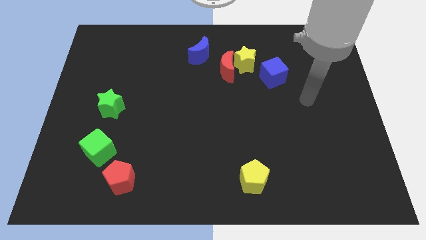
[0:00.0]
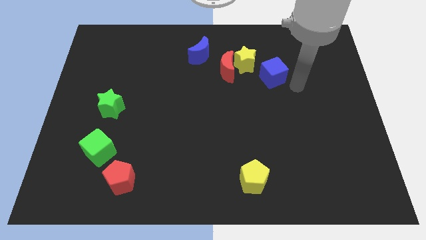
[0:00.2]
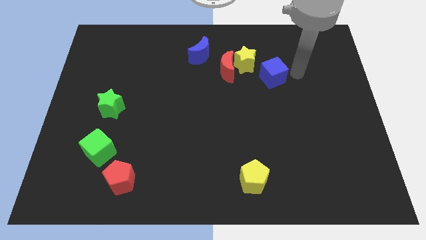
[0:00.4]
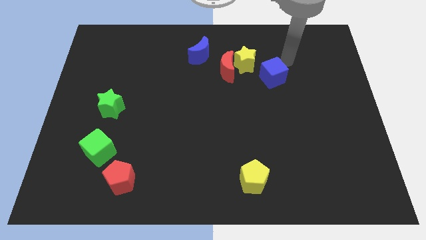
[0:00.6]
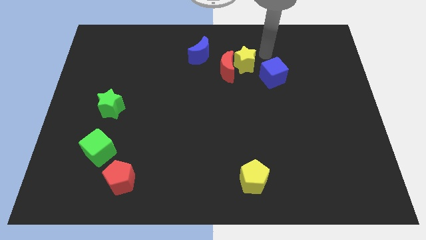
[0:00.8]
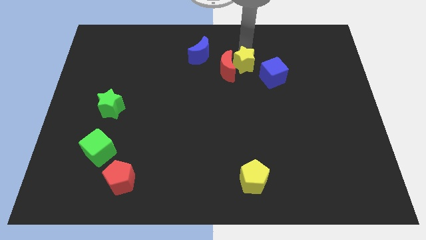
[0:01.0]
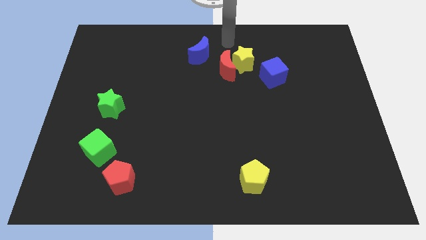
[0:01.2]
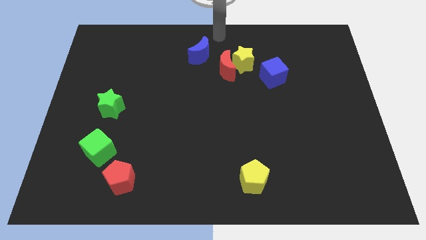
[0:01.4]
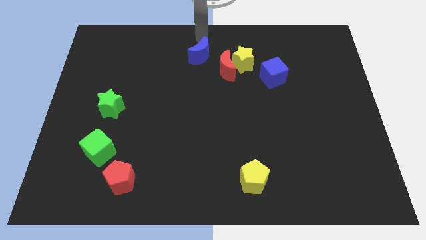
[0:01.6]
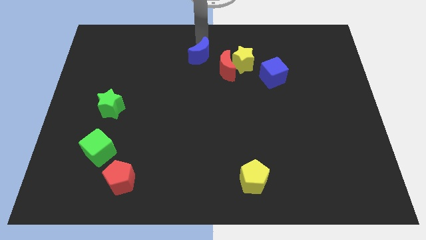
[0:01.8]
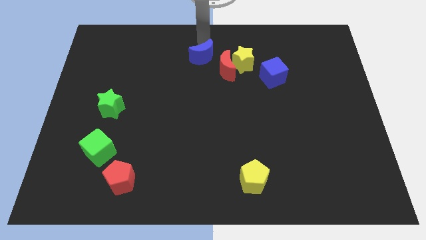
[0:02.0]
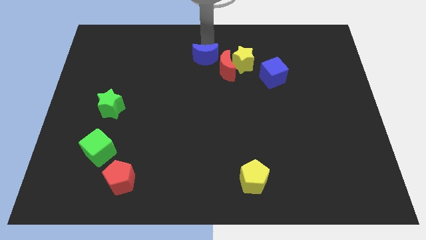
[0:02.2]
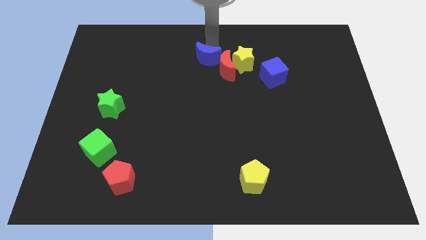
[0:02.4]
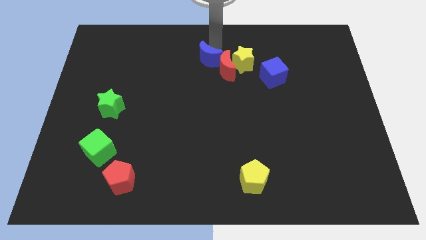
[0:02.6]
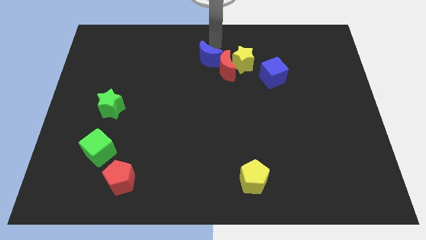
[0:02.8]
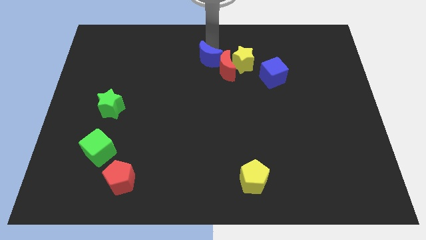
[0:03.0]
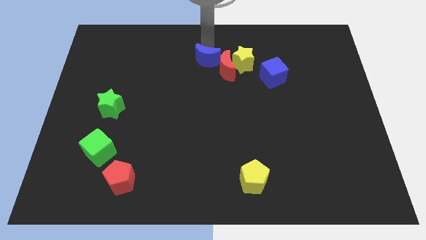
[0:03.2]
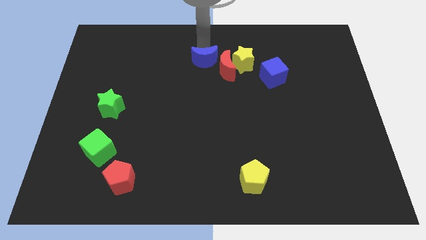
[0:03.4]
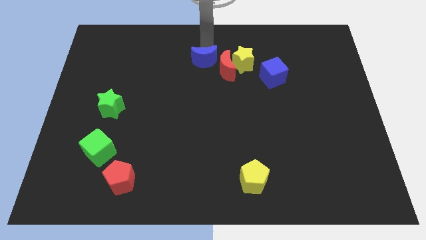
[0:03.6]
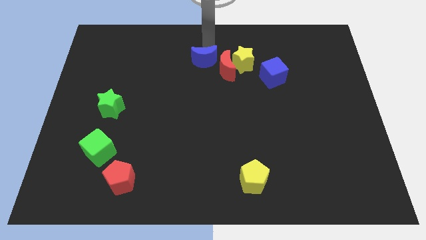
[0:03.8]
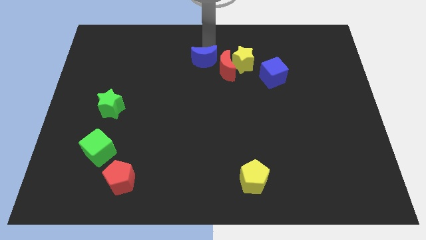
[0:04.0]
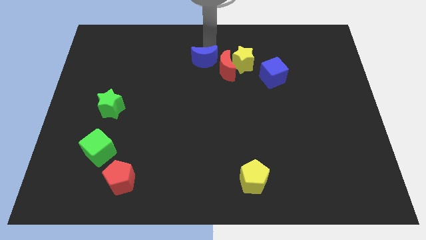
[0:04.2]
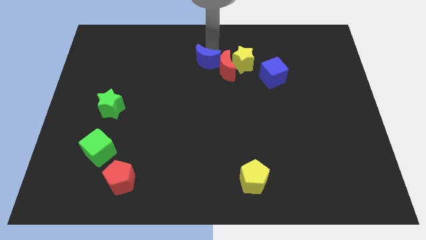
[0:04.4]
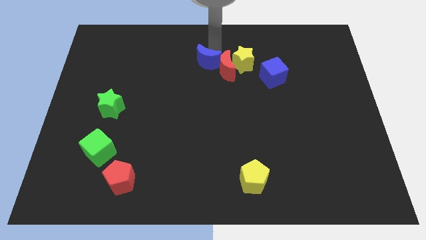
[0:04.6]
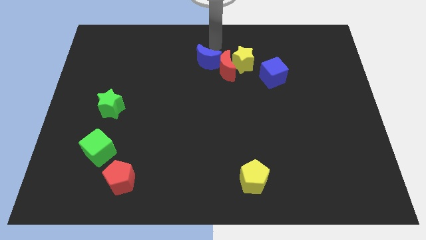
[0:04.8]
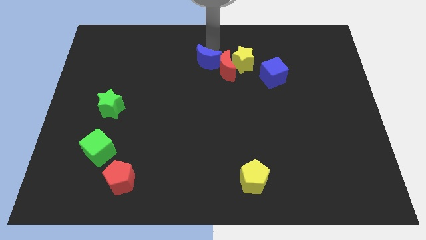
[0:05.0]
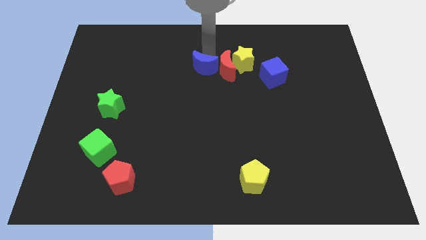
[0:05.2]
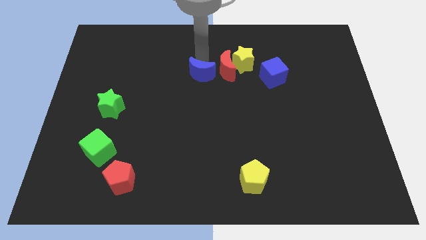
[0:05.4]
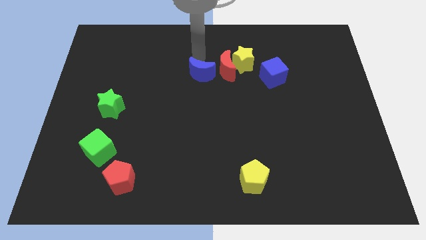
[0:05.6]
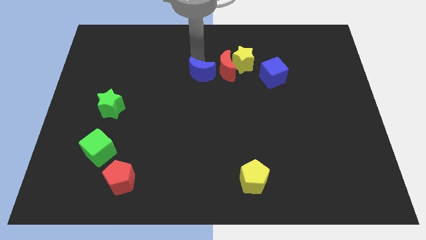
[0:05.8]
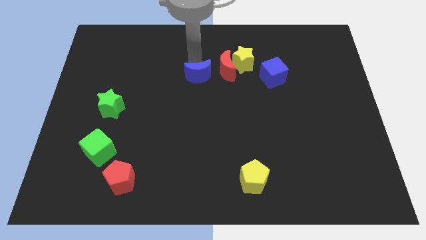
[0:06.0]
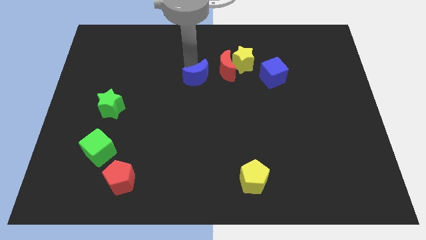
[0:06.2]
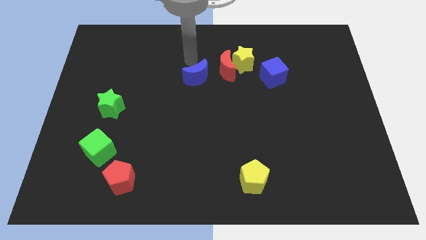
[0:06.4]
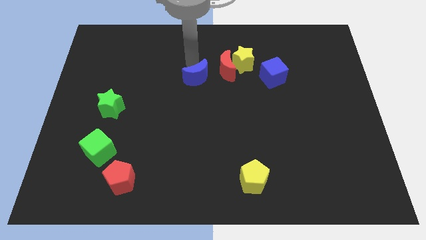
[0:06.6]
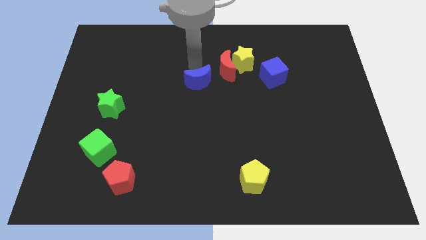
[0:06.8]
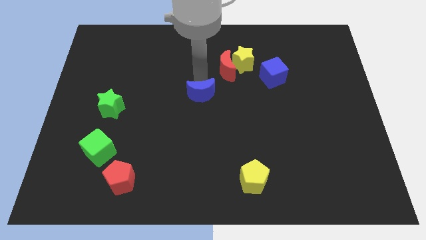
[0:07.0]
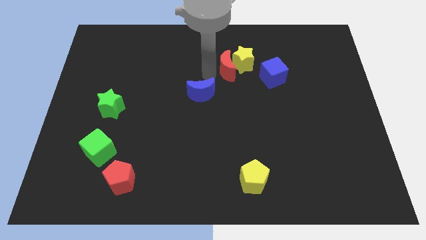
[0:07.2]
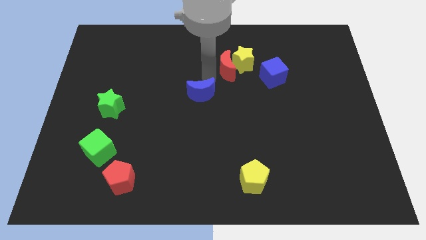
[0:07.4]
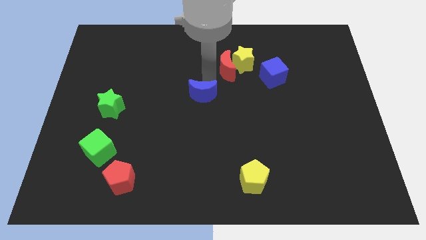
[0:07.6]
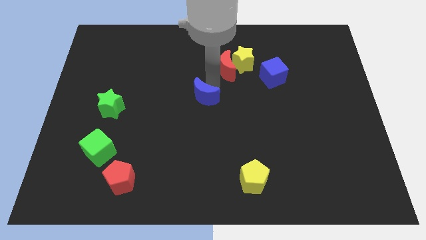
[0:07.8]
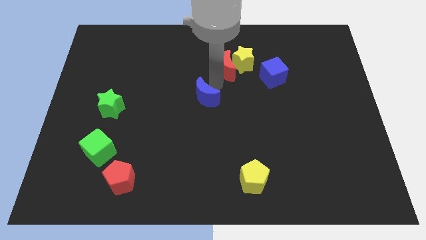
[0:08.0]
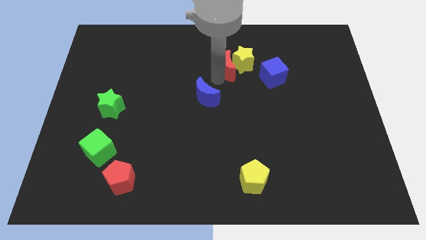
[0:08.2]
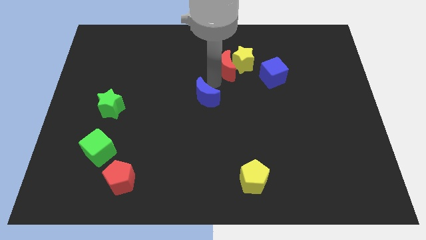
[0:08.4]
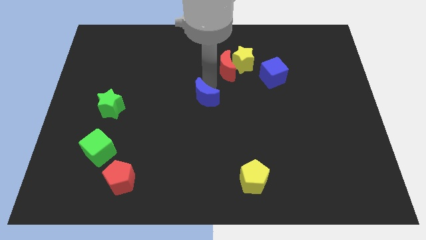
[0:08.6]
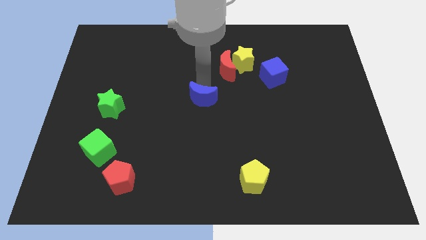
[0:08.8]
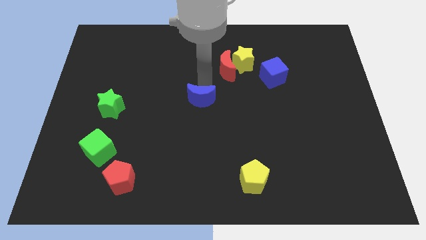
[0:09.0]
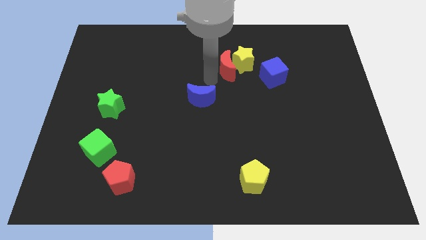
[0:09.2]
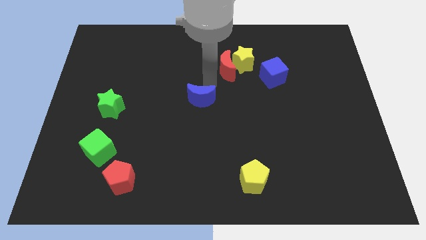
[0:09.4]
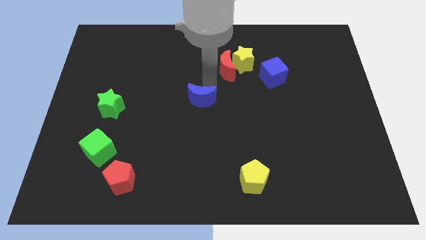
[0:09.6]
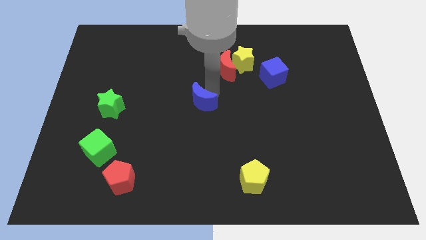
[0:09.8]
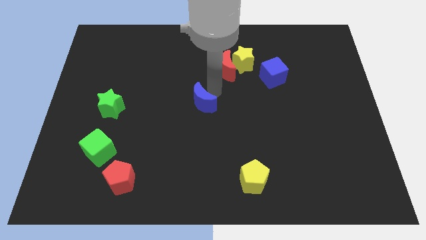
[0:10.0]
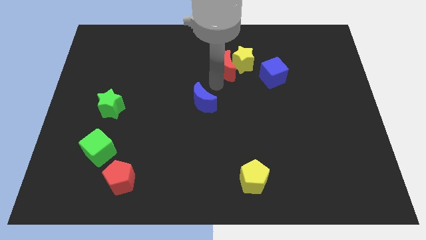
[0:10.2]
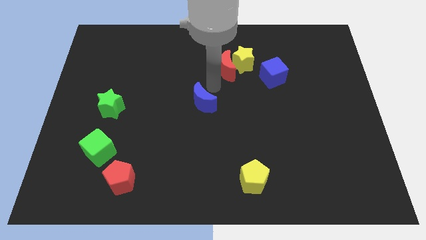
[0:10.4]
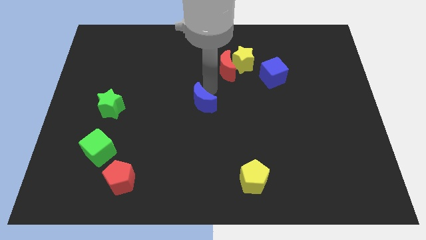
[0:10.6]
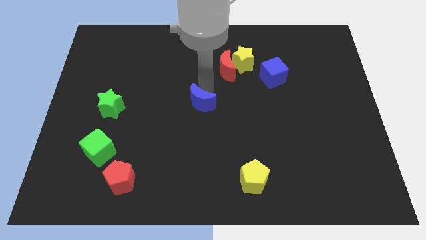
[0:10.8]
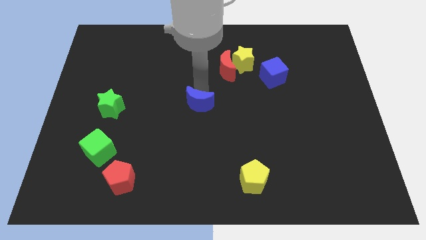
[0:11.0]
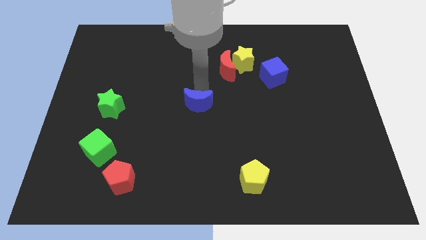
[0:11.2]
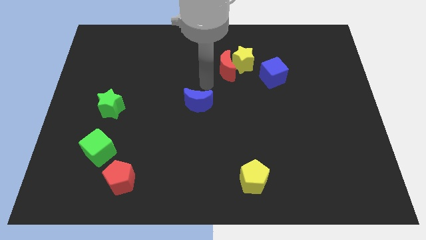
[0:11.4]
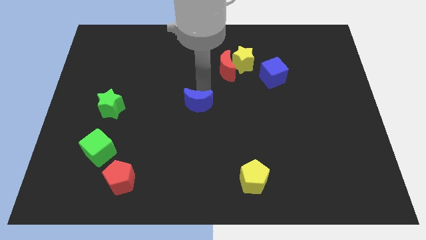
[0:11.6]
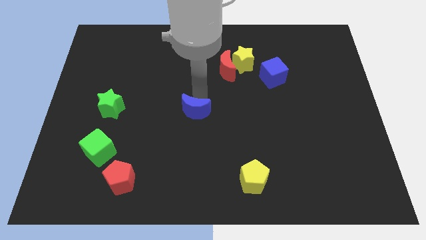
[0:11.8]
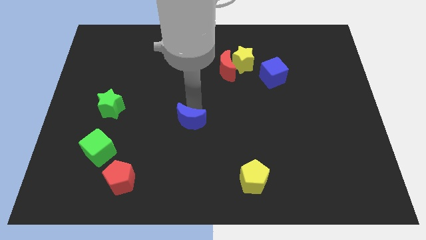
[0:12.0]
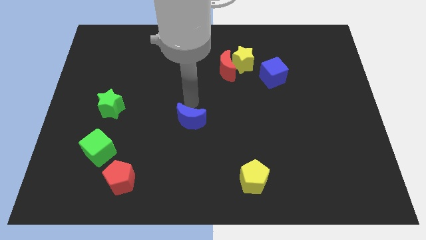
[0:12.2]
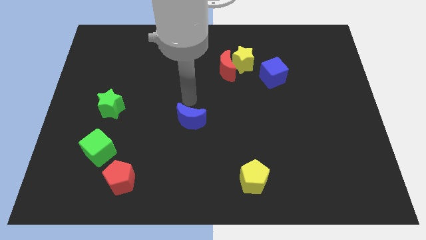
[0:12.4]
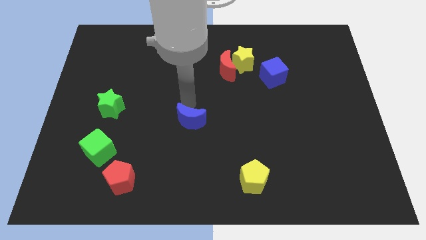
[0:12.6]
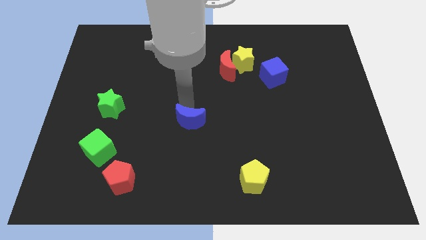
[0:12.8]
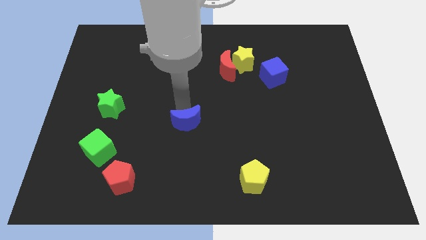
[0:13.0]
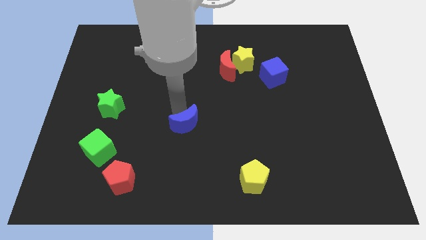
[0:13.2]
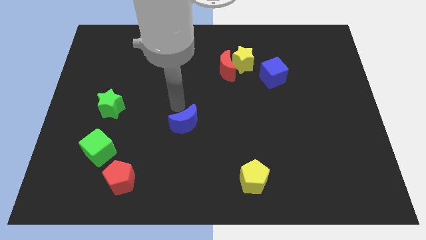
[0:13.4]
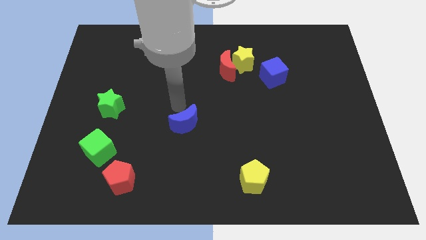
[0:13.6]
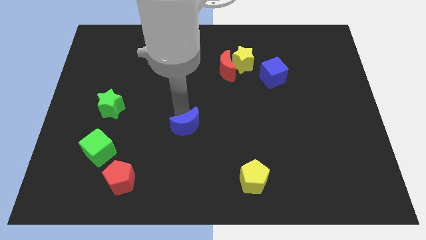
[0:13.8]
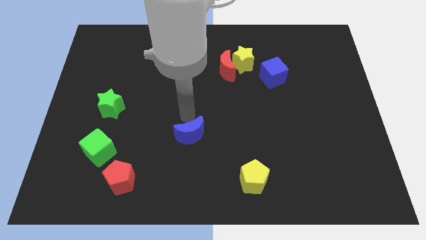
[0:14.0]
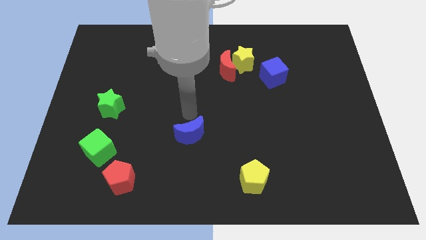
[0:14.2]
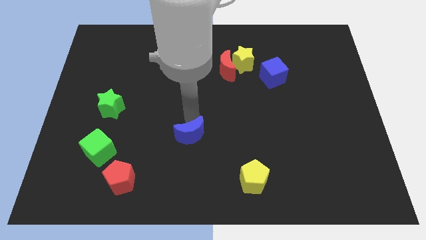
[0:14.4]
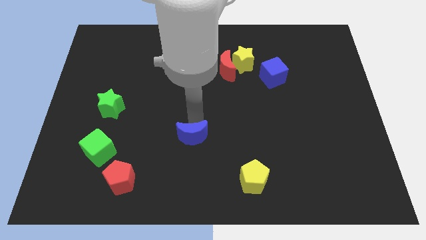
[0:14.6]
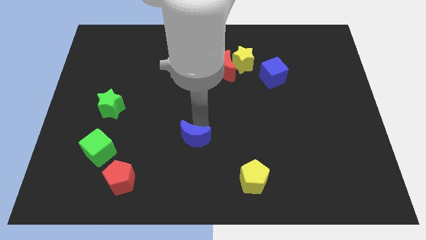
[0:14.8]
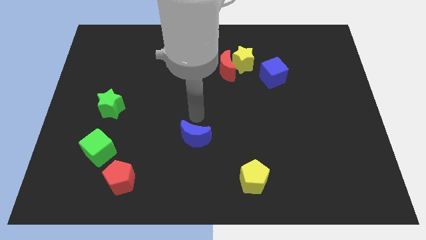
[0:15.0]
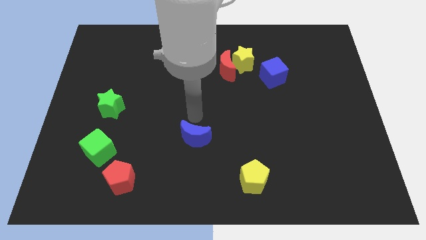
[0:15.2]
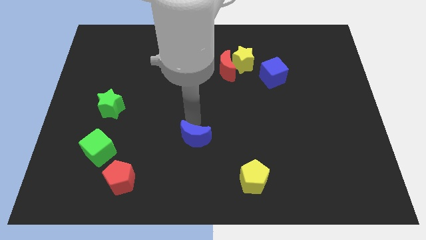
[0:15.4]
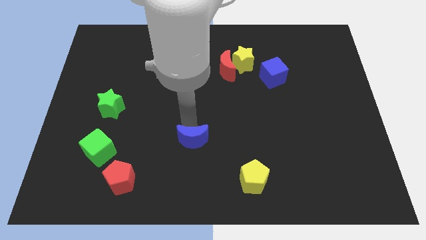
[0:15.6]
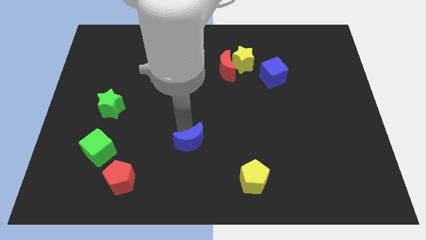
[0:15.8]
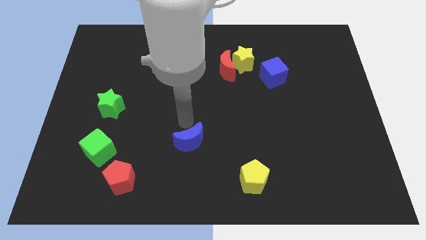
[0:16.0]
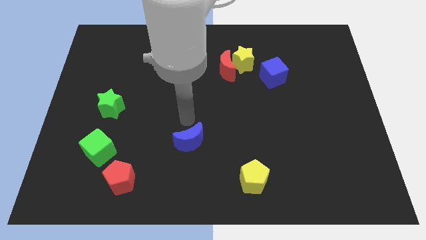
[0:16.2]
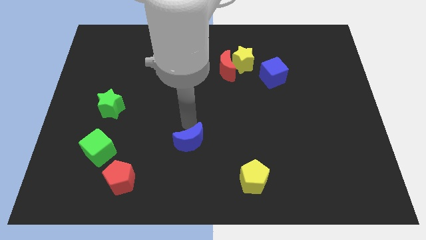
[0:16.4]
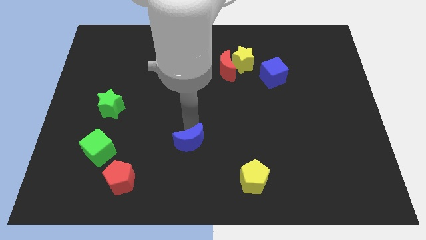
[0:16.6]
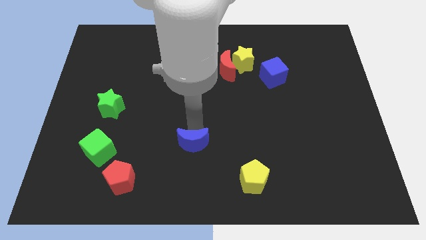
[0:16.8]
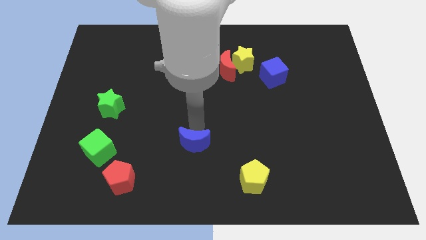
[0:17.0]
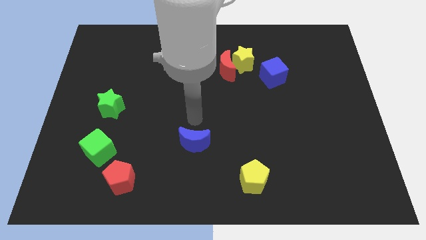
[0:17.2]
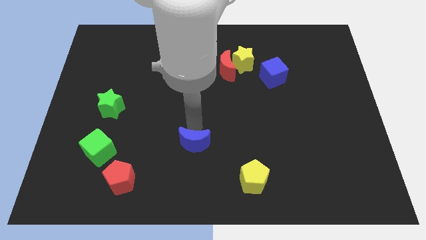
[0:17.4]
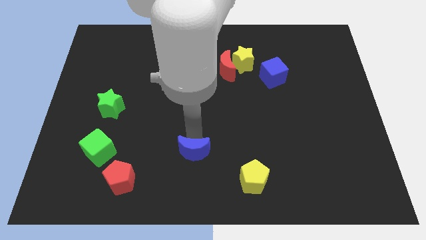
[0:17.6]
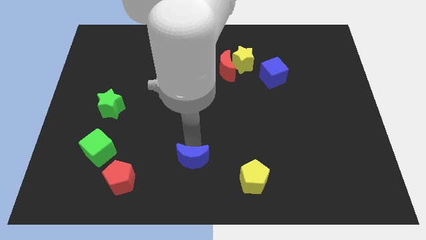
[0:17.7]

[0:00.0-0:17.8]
push the blue moon to the bottom side
